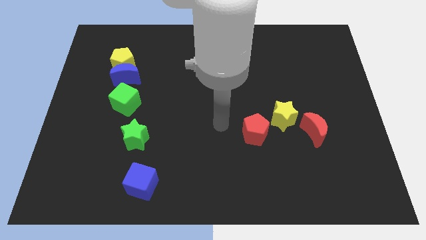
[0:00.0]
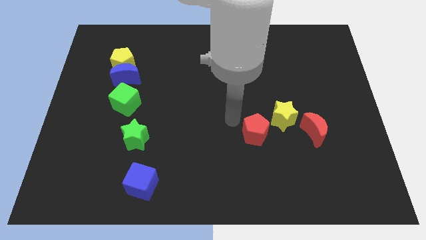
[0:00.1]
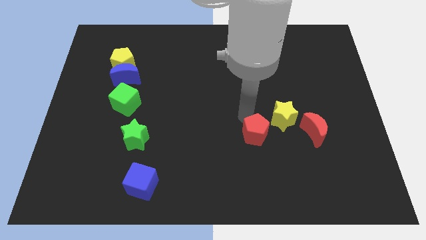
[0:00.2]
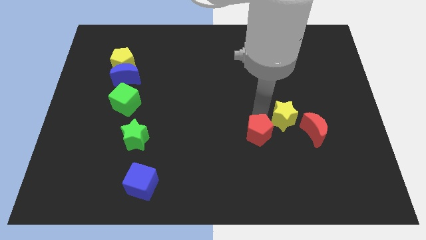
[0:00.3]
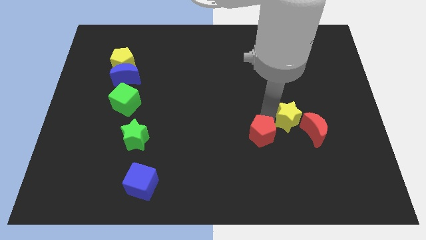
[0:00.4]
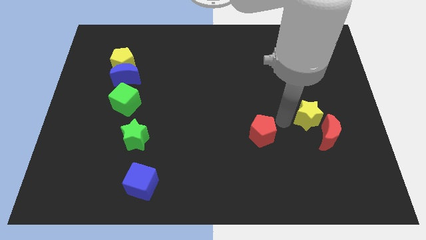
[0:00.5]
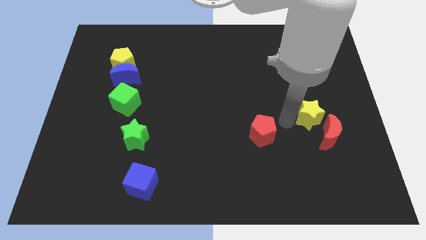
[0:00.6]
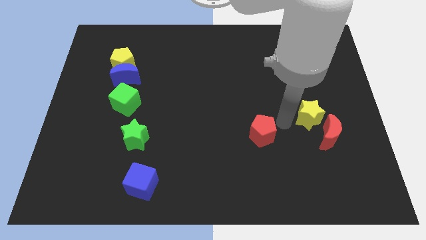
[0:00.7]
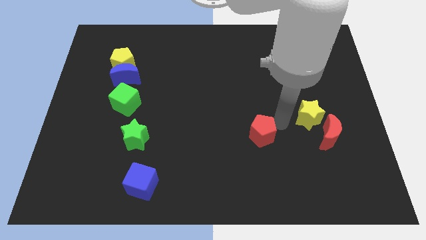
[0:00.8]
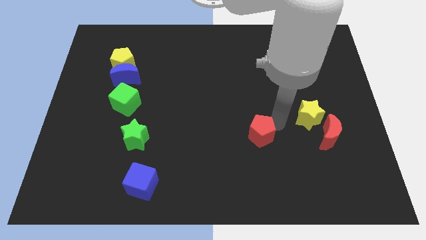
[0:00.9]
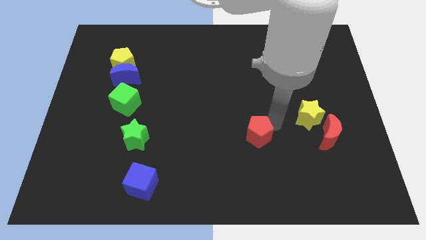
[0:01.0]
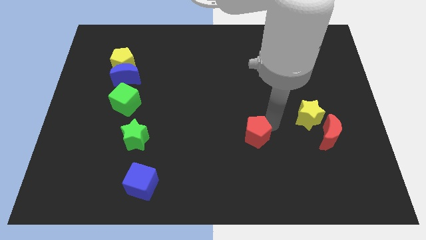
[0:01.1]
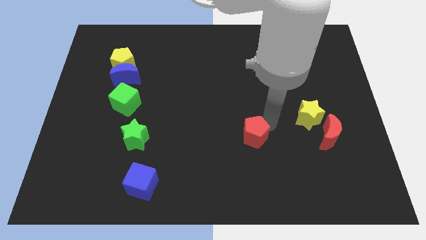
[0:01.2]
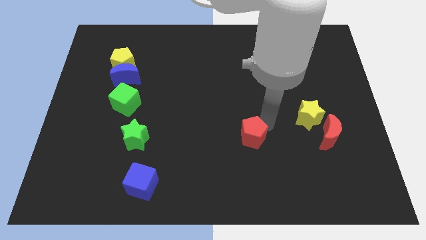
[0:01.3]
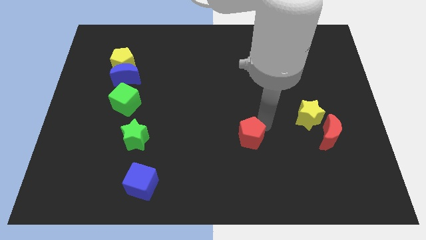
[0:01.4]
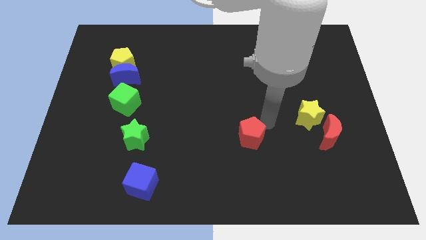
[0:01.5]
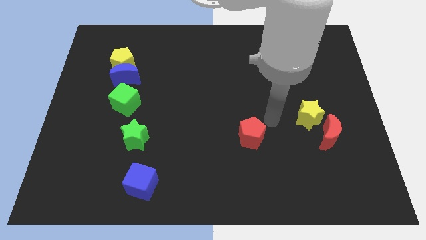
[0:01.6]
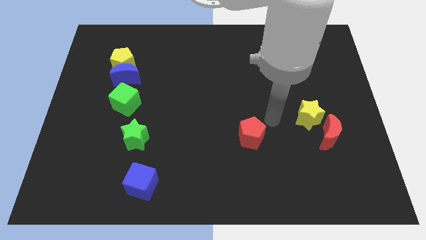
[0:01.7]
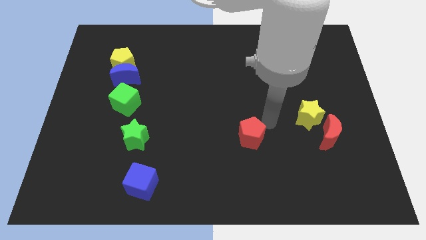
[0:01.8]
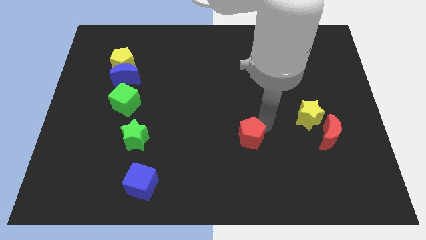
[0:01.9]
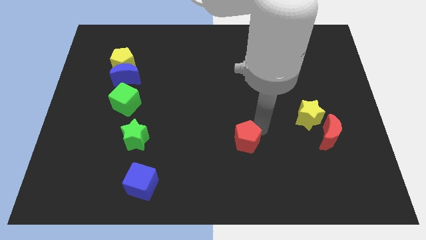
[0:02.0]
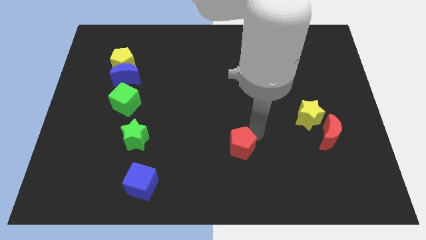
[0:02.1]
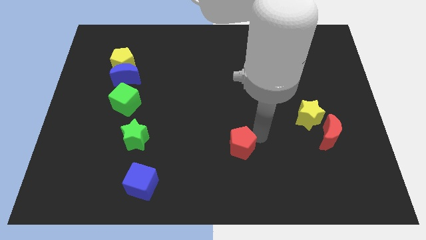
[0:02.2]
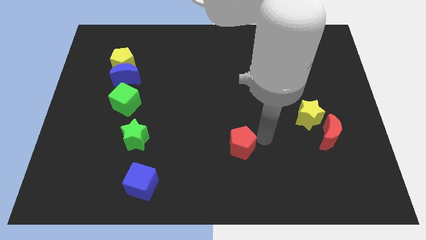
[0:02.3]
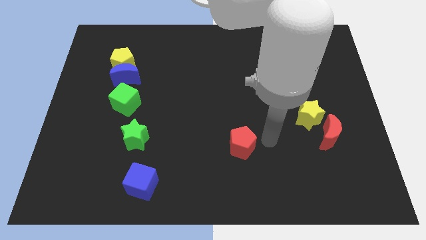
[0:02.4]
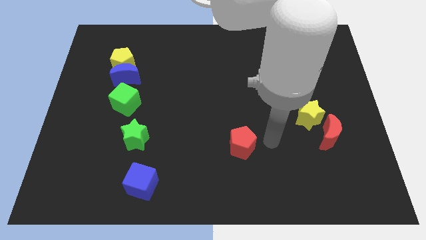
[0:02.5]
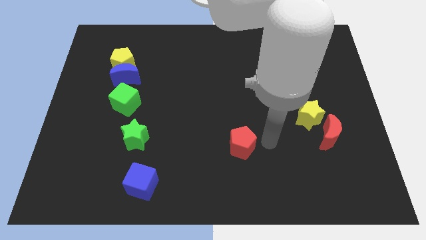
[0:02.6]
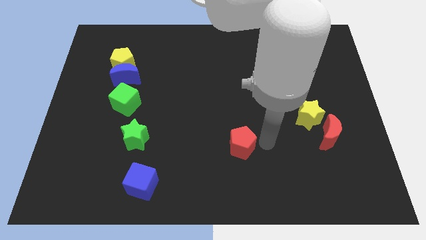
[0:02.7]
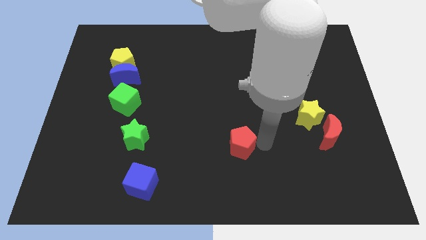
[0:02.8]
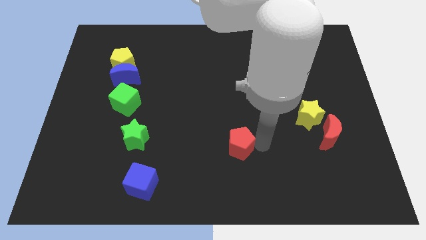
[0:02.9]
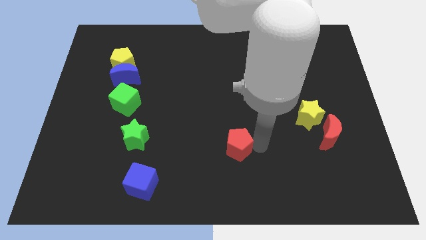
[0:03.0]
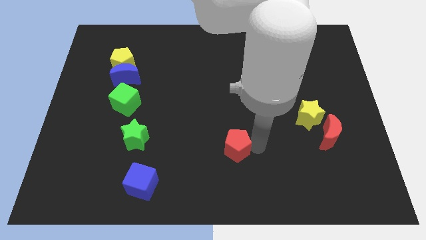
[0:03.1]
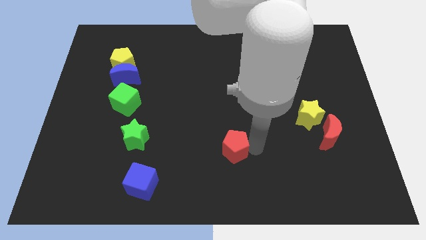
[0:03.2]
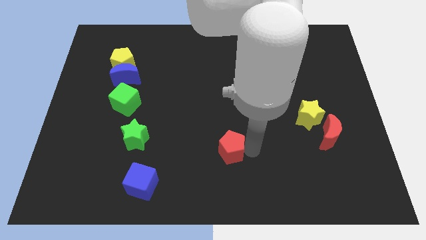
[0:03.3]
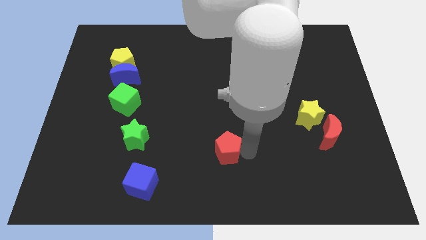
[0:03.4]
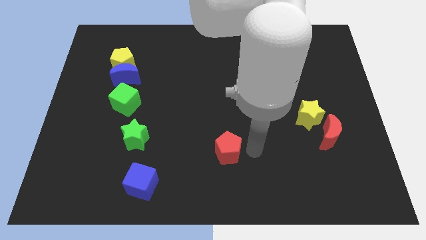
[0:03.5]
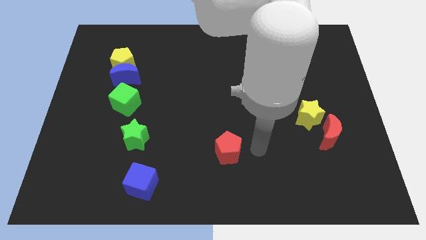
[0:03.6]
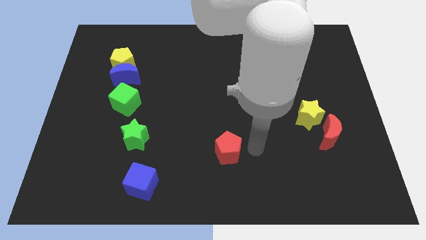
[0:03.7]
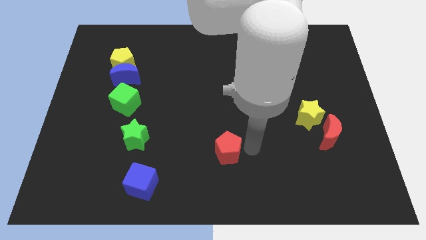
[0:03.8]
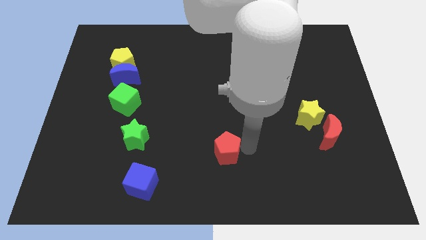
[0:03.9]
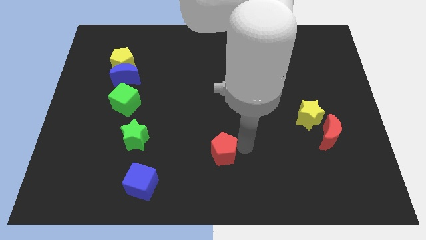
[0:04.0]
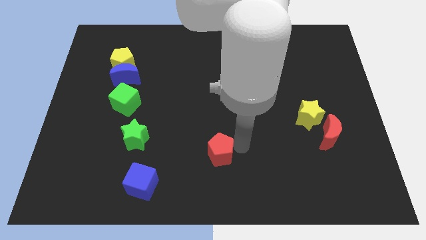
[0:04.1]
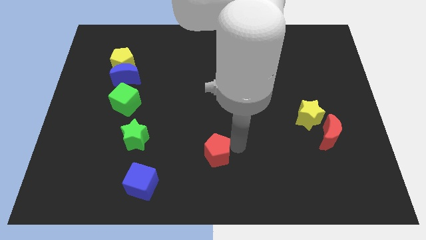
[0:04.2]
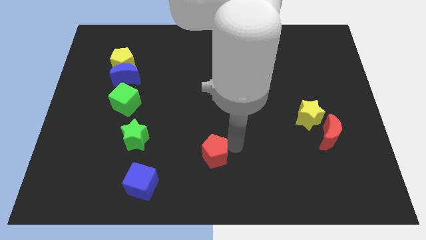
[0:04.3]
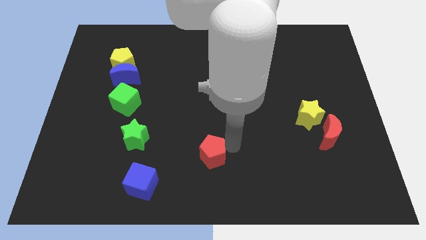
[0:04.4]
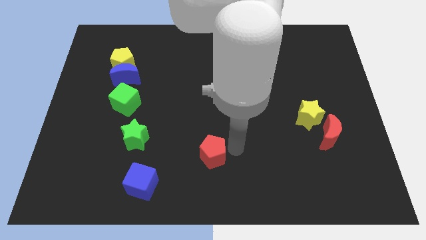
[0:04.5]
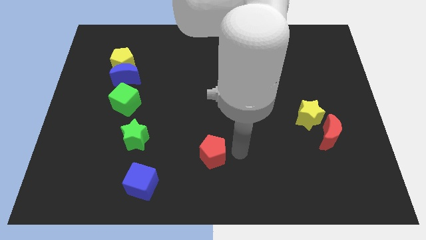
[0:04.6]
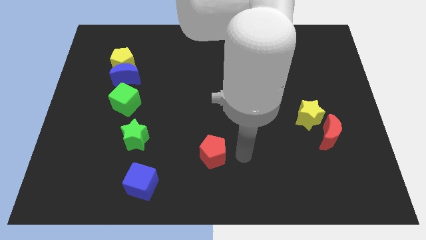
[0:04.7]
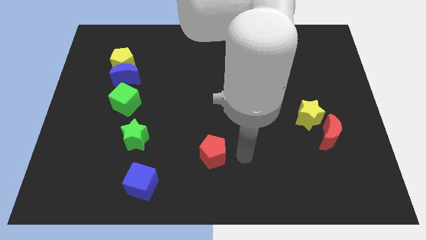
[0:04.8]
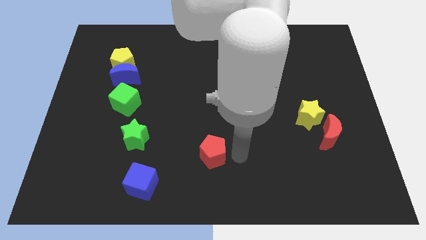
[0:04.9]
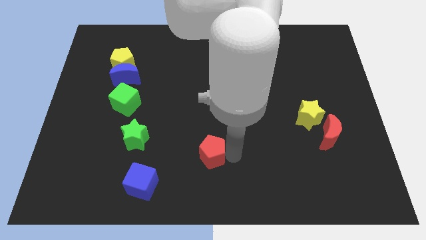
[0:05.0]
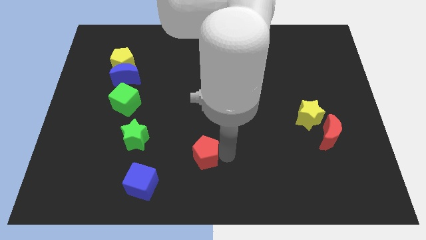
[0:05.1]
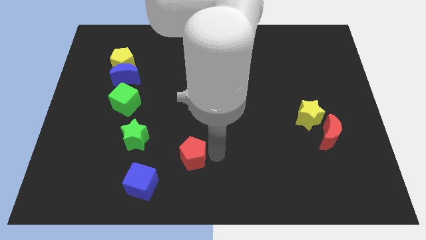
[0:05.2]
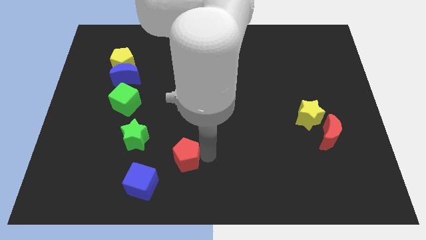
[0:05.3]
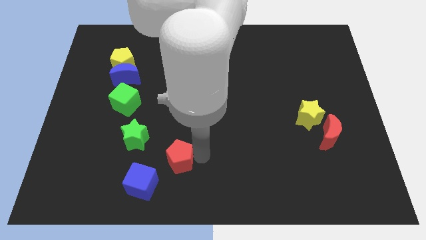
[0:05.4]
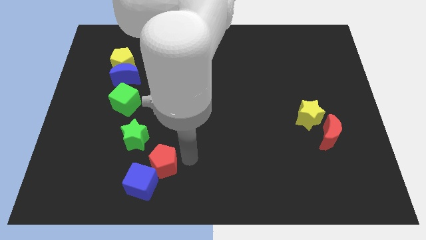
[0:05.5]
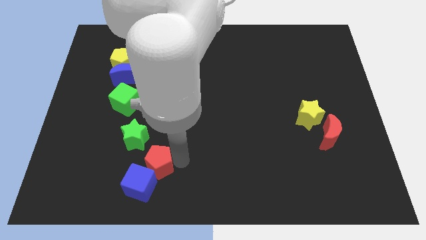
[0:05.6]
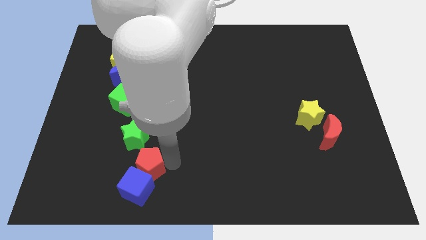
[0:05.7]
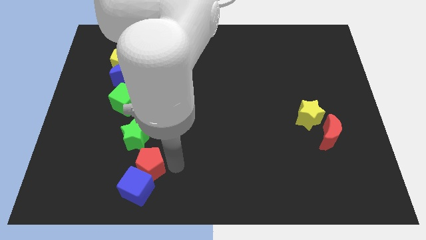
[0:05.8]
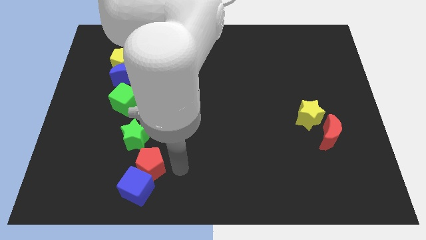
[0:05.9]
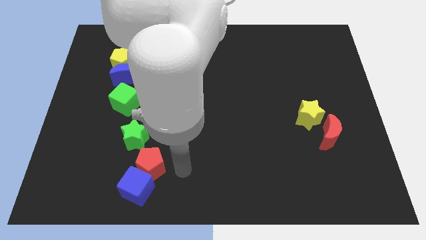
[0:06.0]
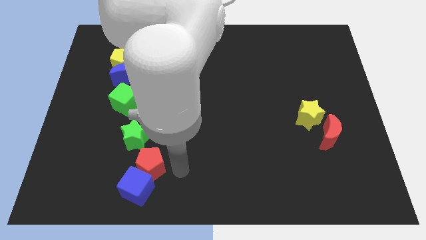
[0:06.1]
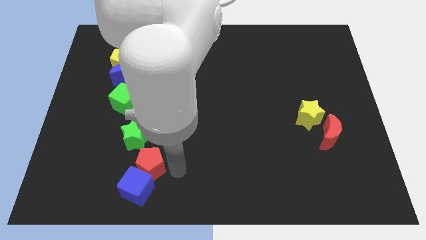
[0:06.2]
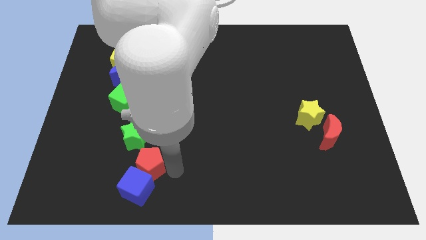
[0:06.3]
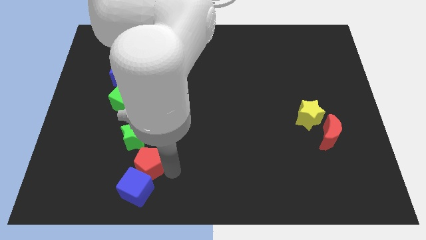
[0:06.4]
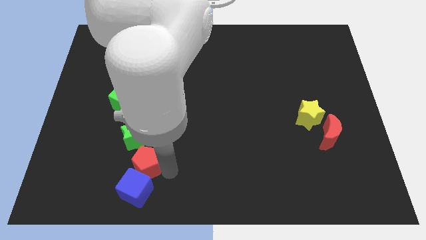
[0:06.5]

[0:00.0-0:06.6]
slide the red pentagon left

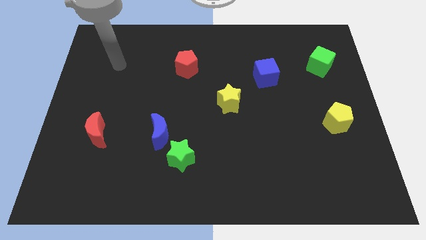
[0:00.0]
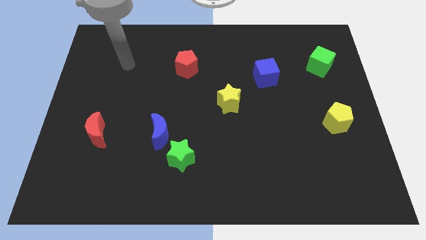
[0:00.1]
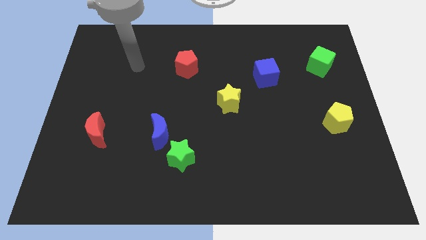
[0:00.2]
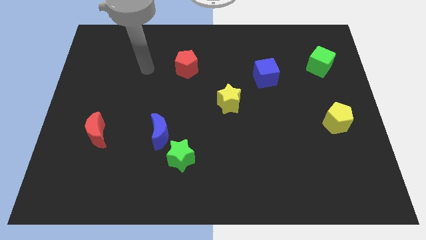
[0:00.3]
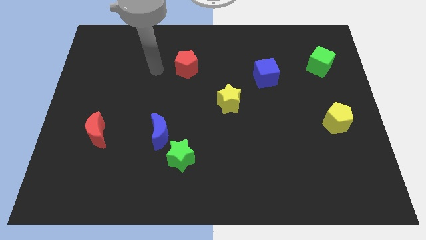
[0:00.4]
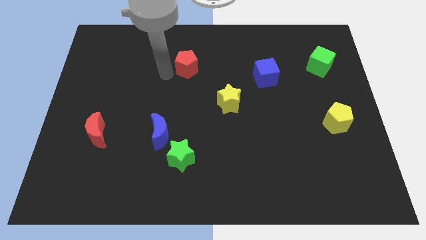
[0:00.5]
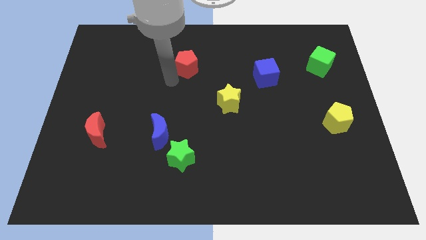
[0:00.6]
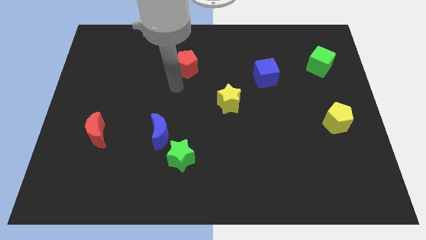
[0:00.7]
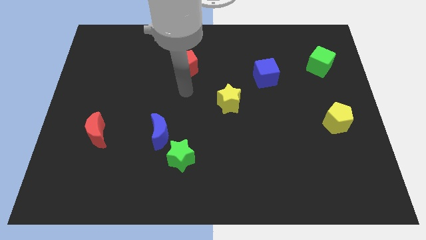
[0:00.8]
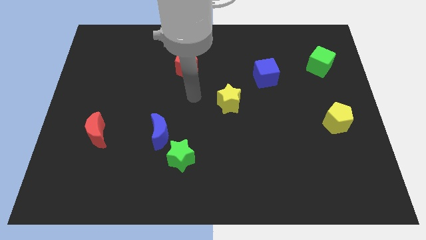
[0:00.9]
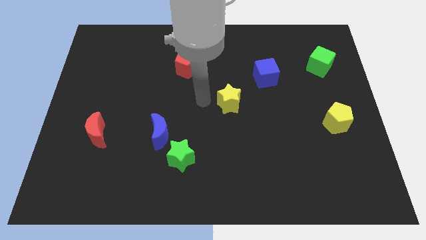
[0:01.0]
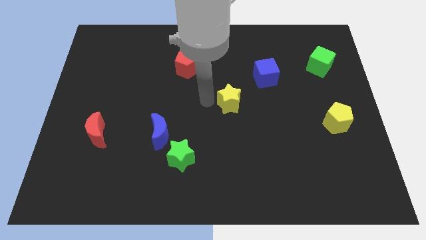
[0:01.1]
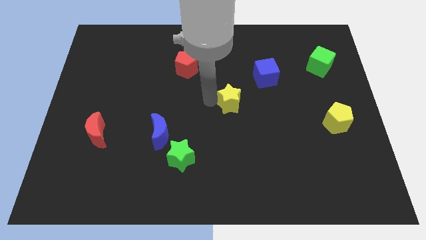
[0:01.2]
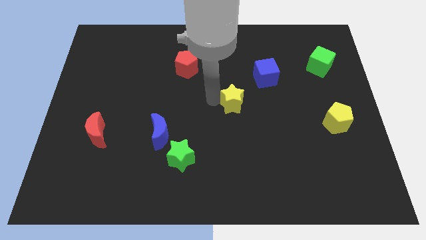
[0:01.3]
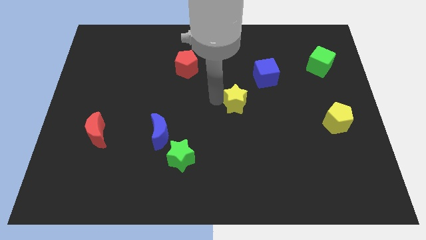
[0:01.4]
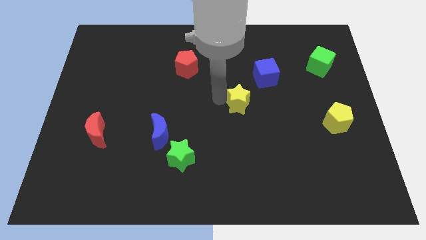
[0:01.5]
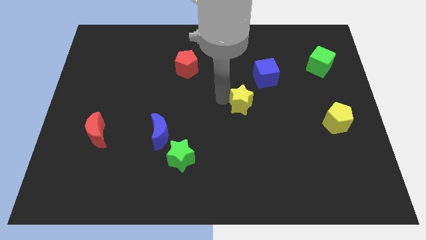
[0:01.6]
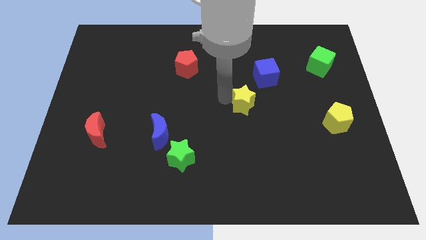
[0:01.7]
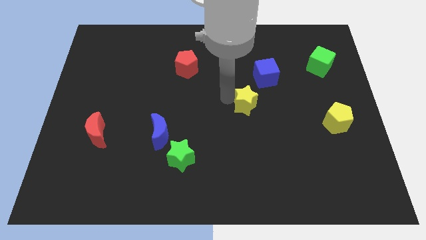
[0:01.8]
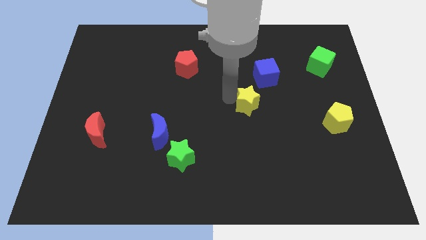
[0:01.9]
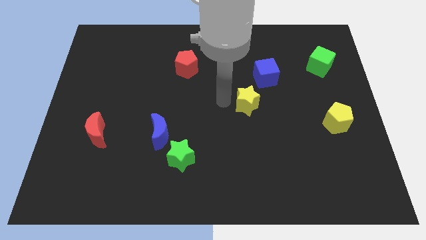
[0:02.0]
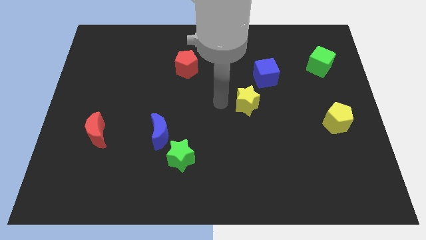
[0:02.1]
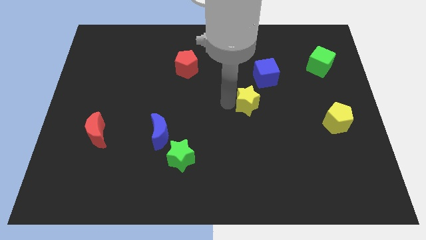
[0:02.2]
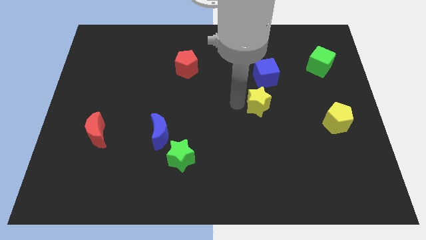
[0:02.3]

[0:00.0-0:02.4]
push the yellow star right a little
